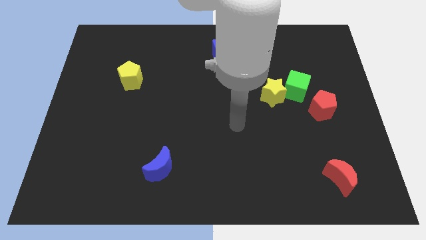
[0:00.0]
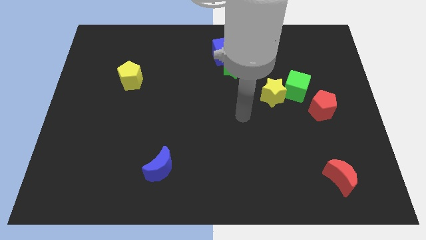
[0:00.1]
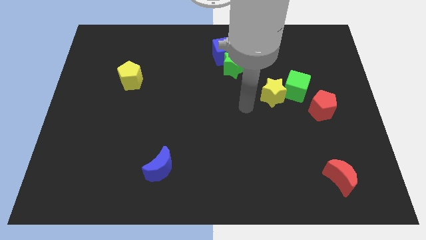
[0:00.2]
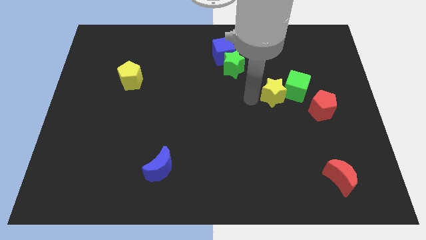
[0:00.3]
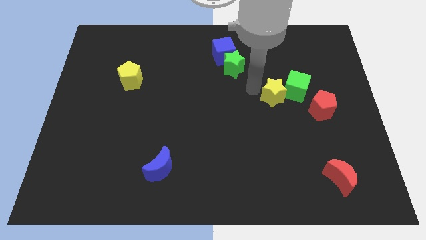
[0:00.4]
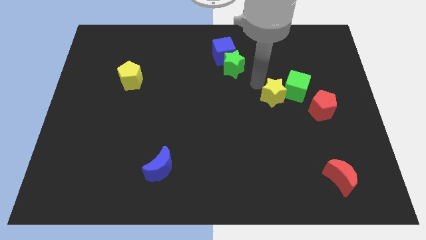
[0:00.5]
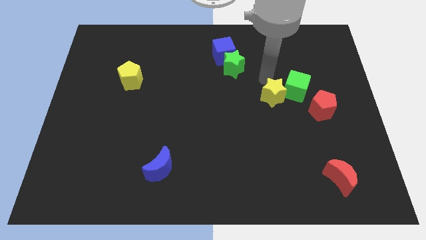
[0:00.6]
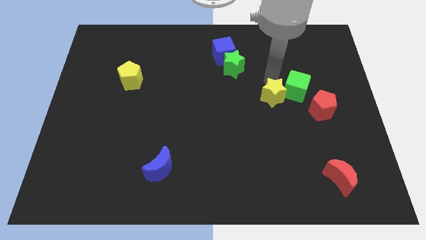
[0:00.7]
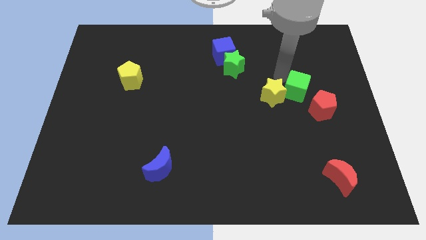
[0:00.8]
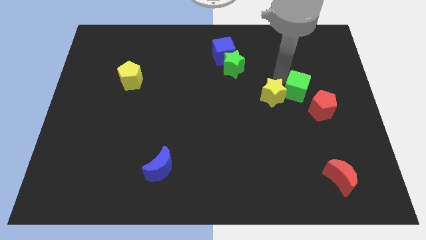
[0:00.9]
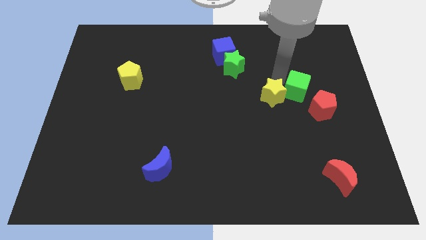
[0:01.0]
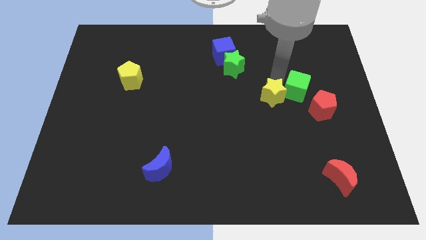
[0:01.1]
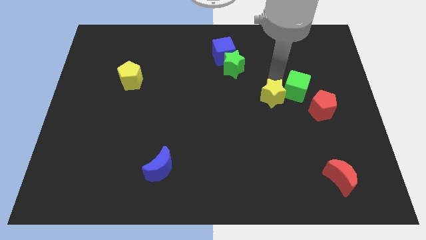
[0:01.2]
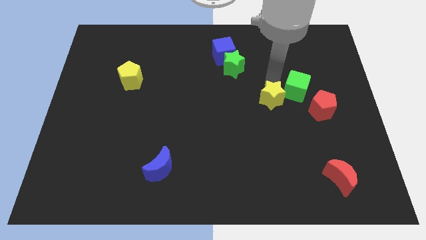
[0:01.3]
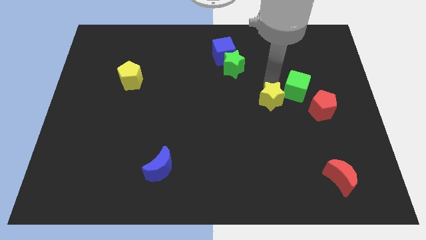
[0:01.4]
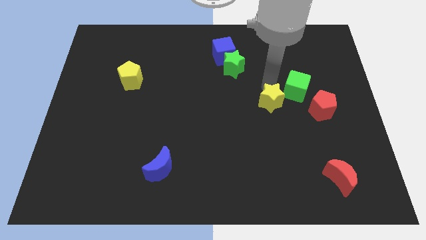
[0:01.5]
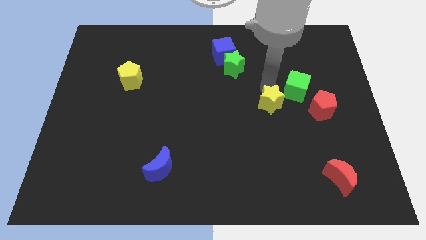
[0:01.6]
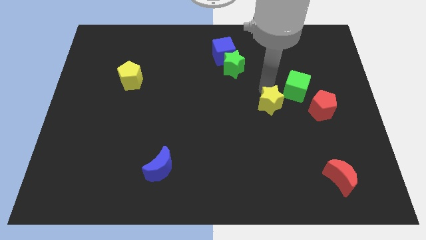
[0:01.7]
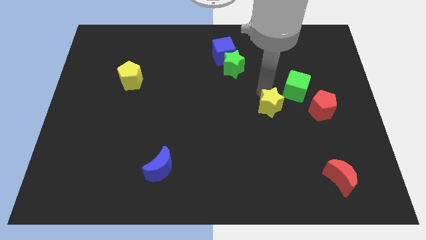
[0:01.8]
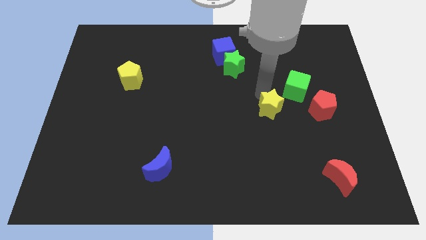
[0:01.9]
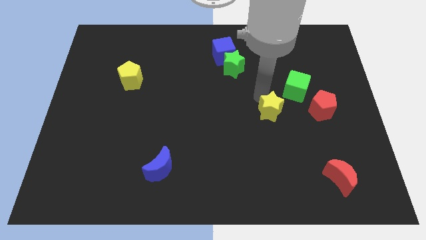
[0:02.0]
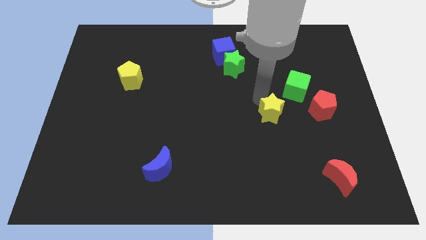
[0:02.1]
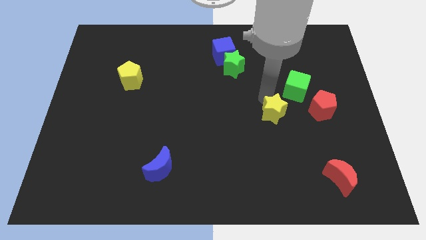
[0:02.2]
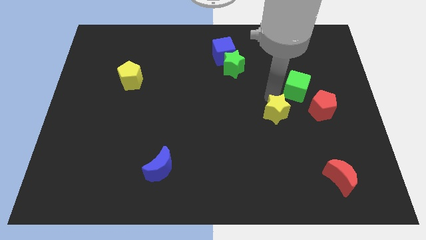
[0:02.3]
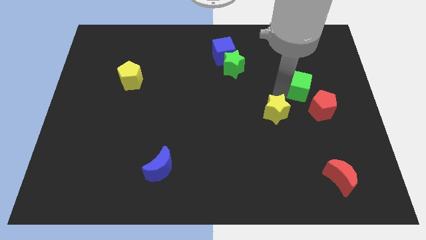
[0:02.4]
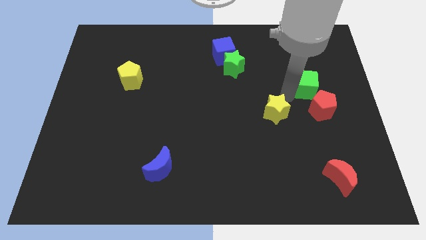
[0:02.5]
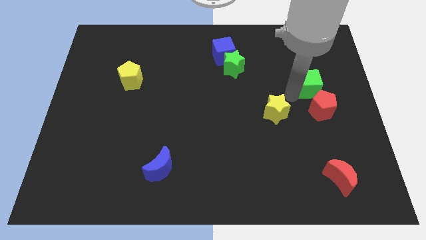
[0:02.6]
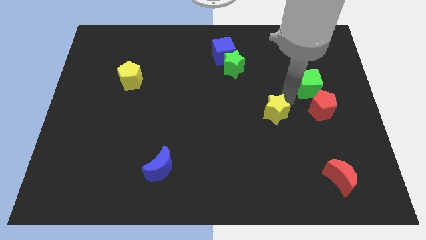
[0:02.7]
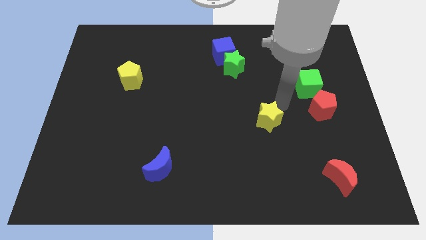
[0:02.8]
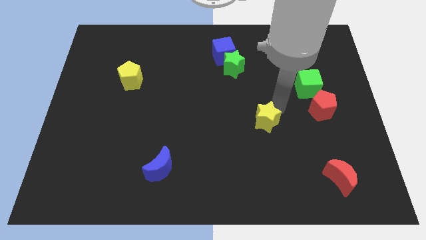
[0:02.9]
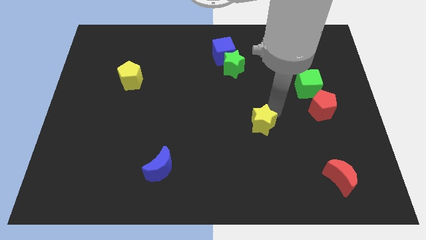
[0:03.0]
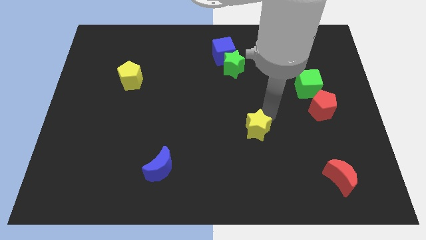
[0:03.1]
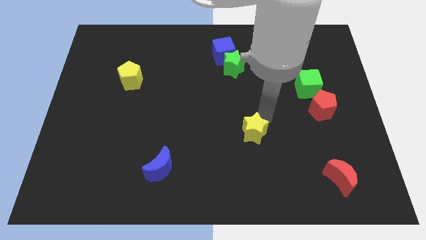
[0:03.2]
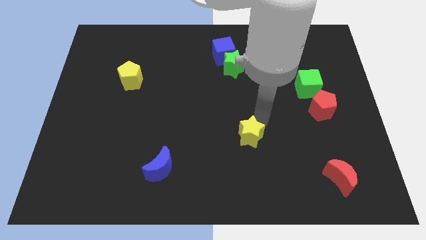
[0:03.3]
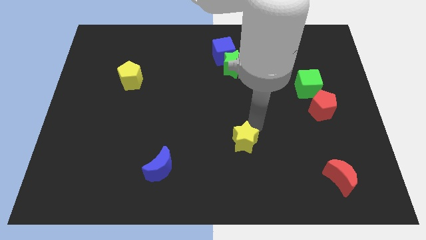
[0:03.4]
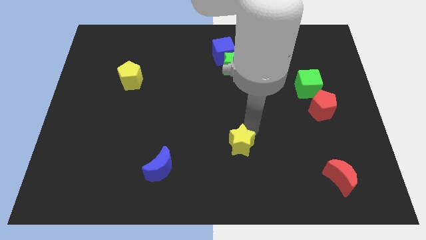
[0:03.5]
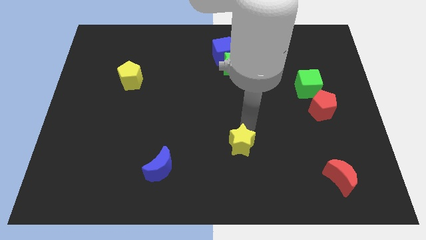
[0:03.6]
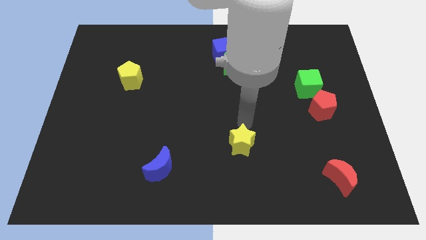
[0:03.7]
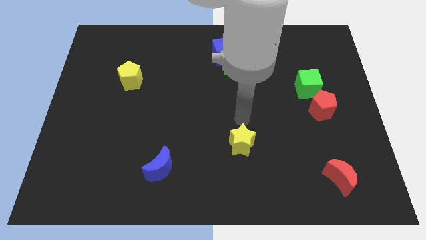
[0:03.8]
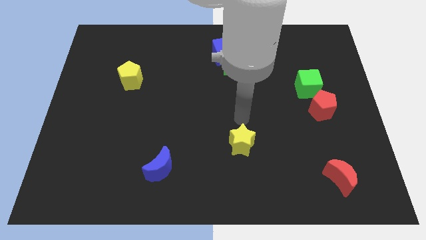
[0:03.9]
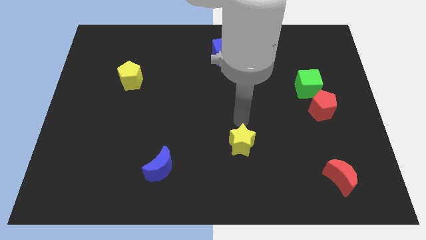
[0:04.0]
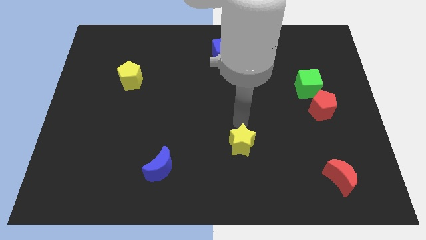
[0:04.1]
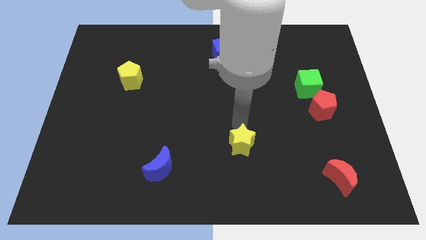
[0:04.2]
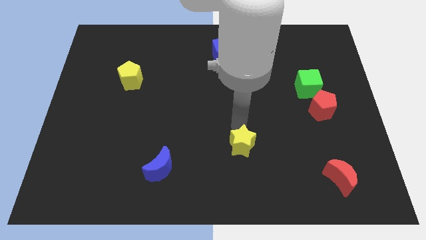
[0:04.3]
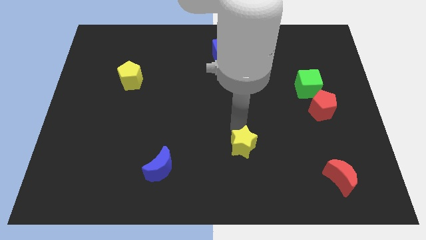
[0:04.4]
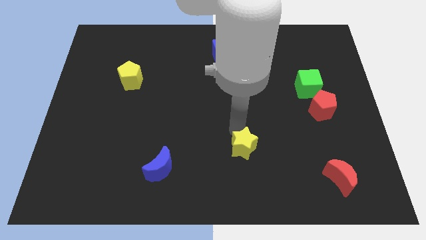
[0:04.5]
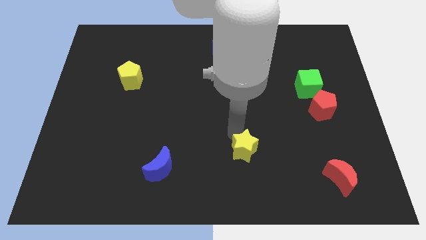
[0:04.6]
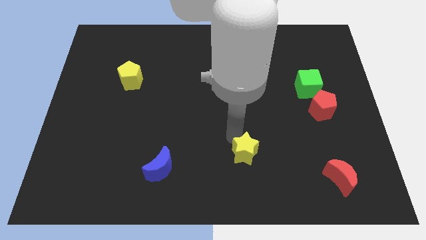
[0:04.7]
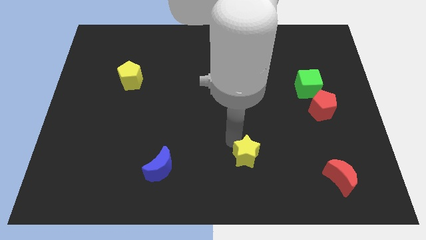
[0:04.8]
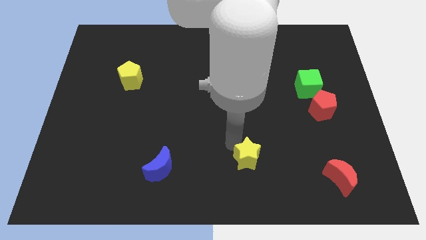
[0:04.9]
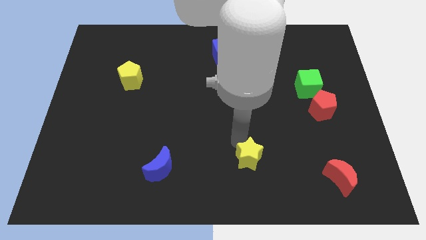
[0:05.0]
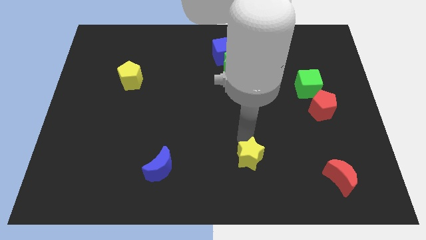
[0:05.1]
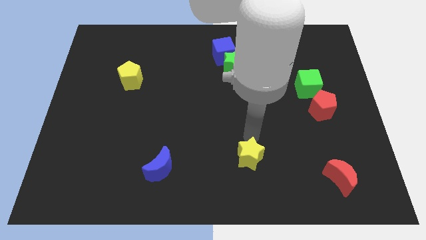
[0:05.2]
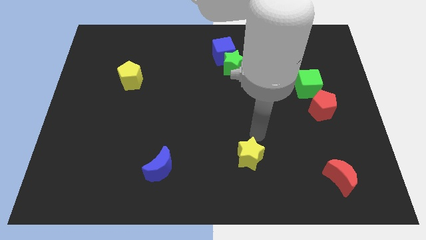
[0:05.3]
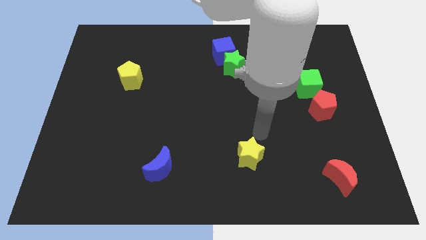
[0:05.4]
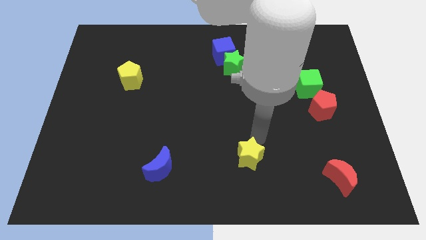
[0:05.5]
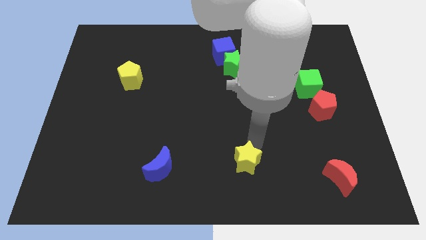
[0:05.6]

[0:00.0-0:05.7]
slide the yellow star to the bottom

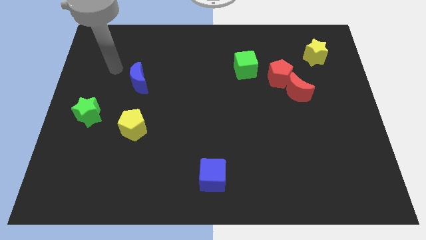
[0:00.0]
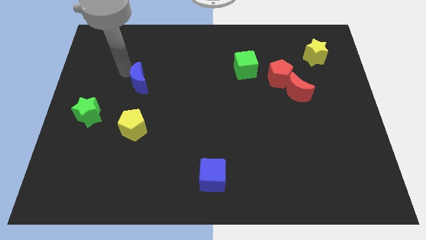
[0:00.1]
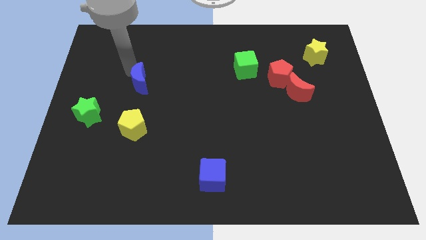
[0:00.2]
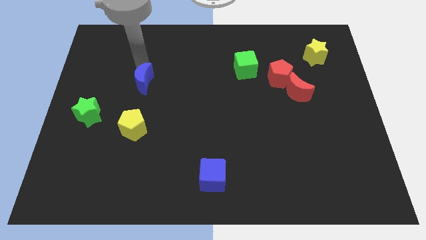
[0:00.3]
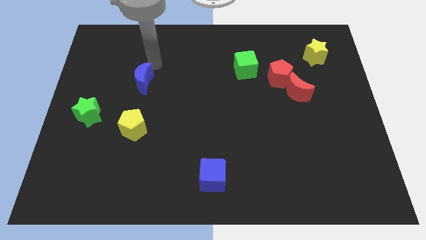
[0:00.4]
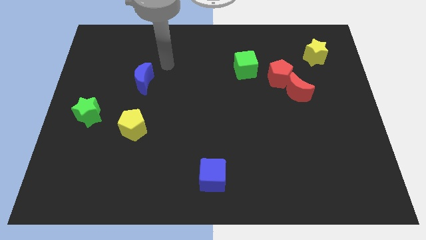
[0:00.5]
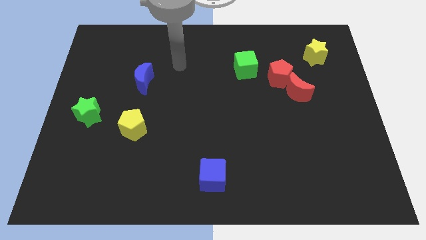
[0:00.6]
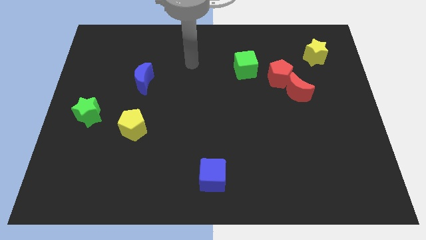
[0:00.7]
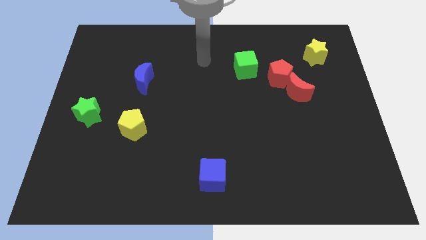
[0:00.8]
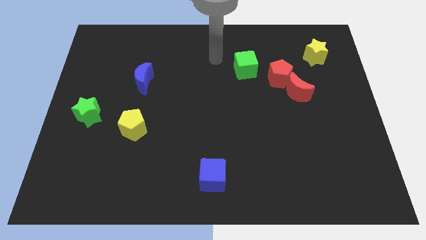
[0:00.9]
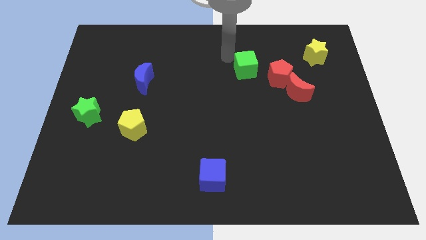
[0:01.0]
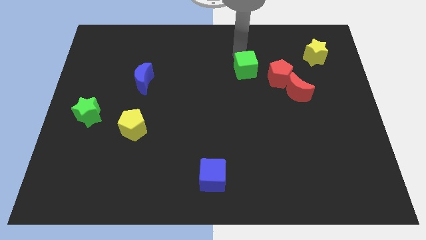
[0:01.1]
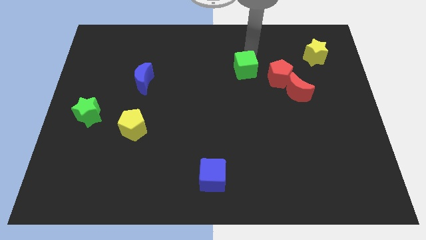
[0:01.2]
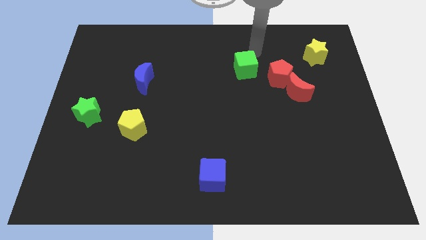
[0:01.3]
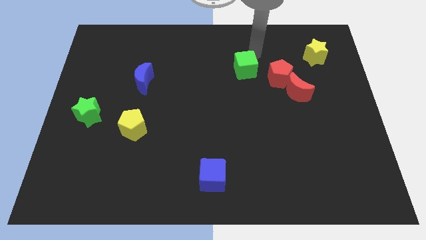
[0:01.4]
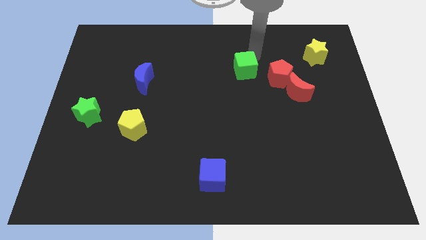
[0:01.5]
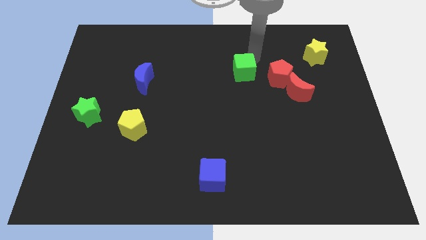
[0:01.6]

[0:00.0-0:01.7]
slide the green cube to the middle of the board

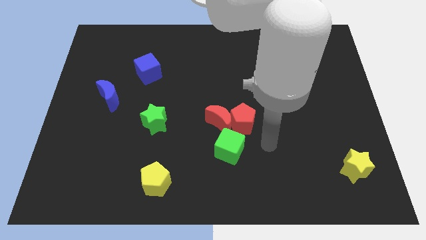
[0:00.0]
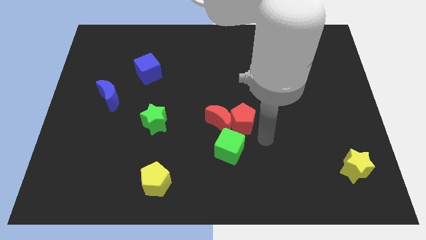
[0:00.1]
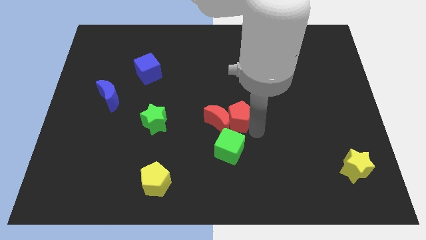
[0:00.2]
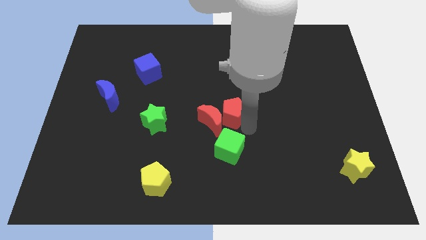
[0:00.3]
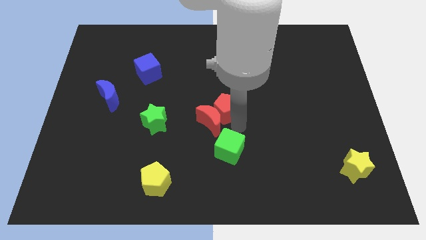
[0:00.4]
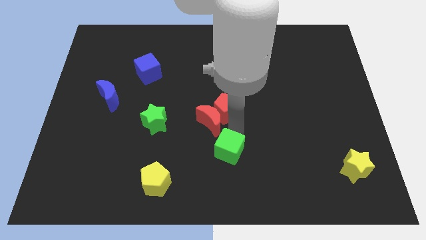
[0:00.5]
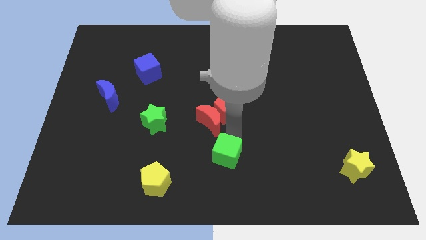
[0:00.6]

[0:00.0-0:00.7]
push the green cube to the bottom
